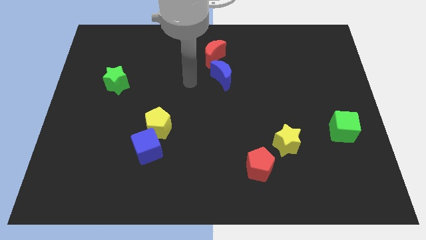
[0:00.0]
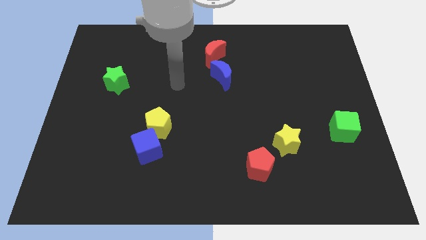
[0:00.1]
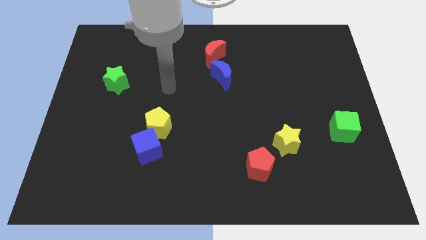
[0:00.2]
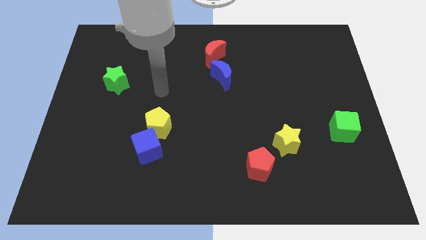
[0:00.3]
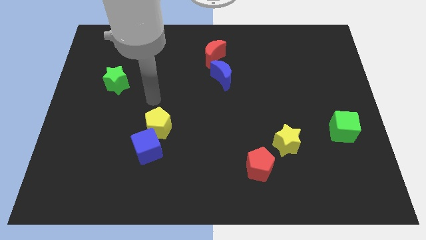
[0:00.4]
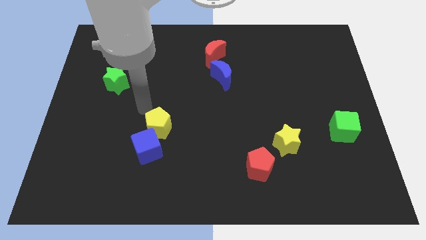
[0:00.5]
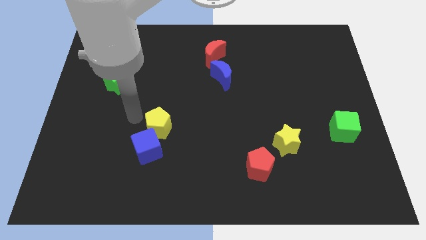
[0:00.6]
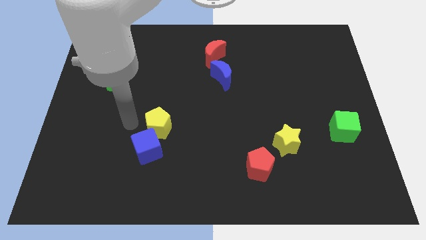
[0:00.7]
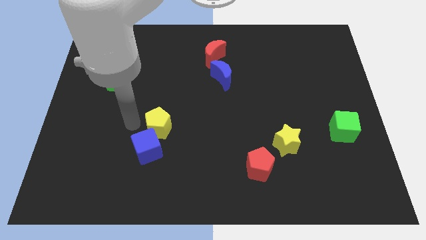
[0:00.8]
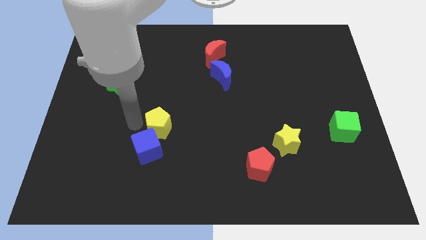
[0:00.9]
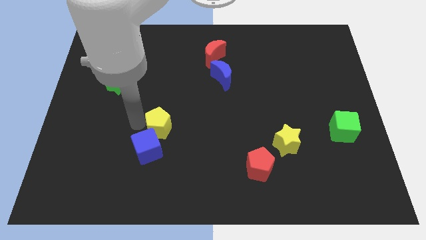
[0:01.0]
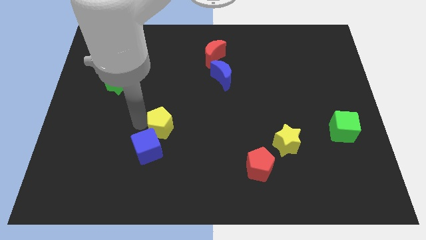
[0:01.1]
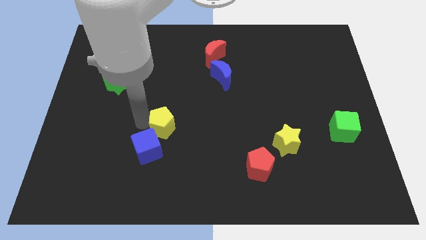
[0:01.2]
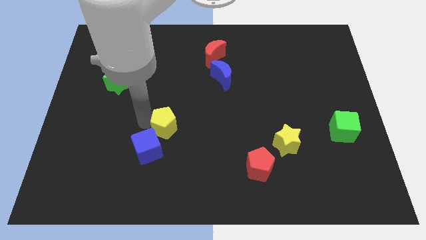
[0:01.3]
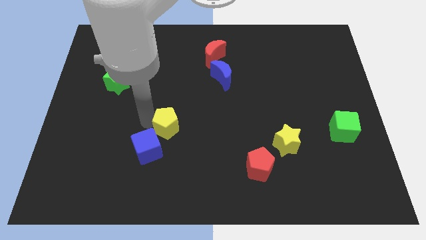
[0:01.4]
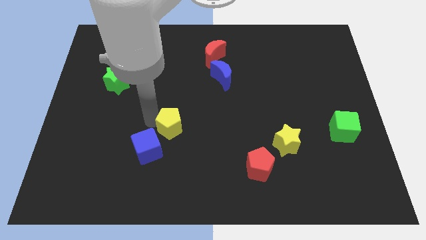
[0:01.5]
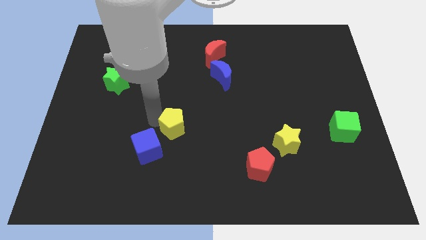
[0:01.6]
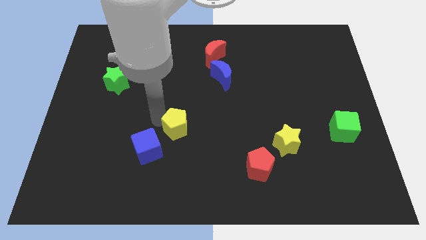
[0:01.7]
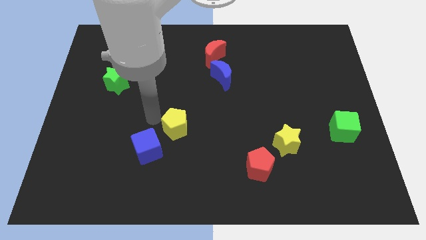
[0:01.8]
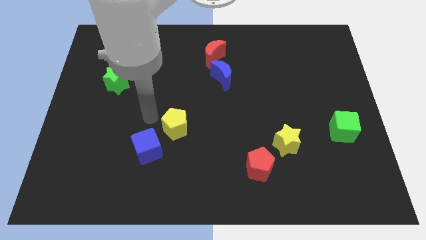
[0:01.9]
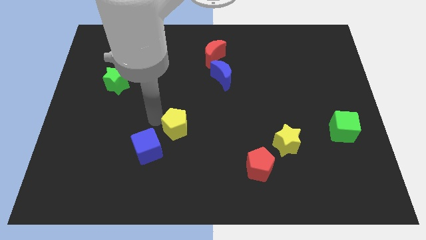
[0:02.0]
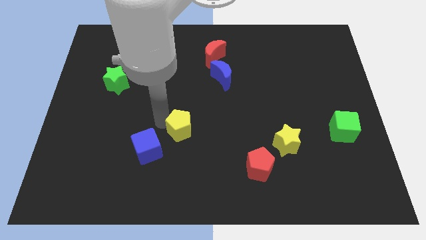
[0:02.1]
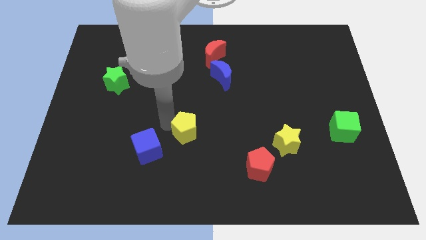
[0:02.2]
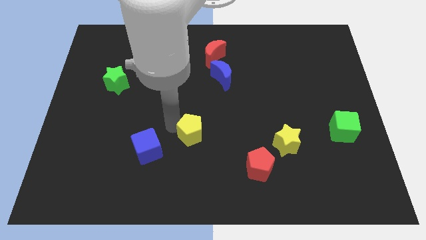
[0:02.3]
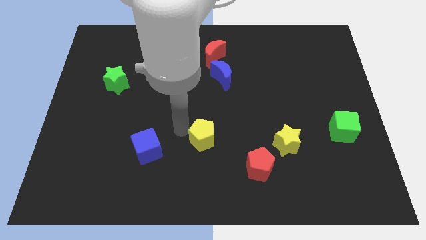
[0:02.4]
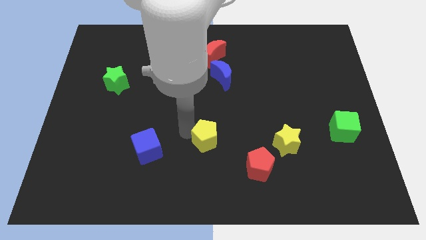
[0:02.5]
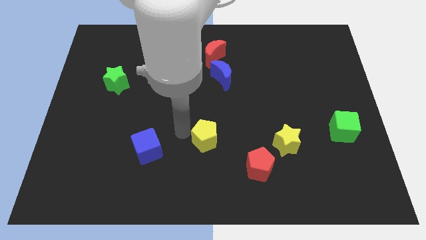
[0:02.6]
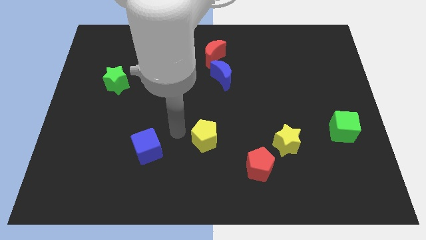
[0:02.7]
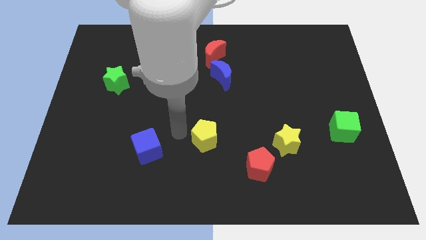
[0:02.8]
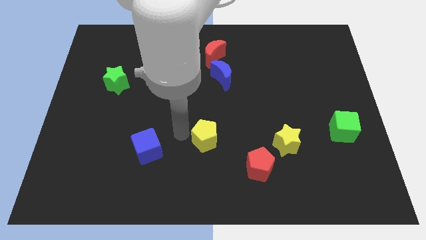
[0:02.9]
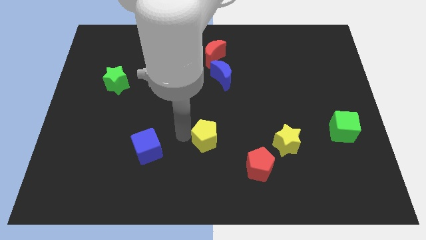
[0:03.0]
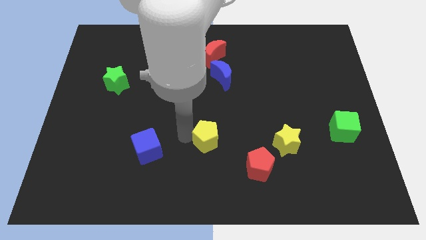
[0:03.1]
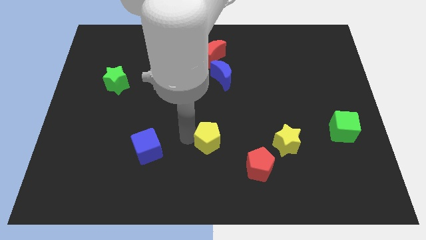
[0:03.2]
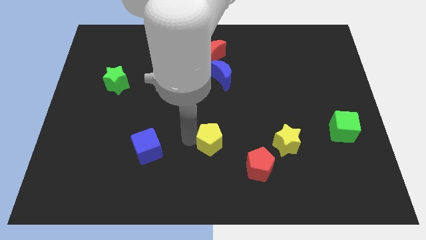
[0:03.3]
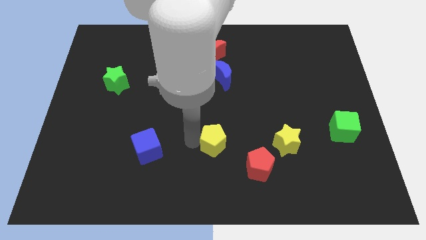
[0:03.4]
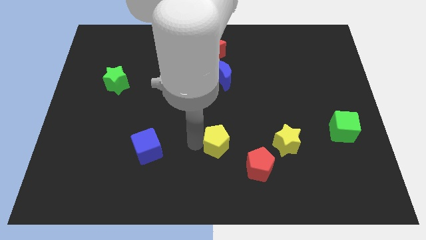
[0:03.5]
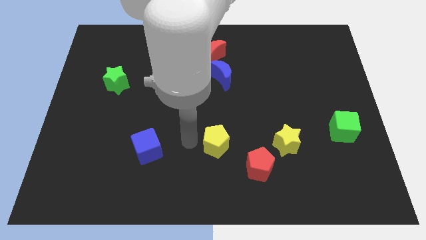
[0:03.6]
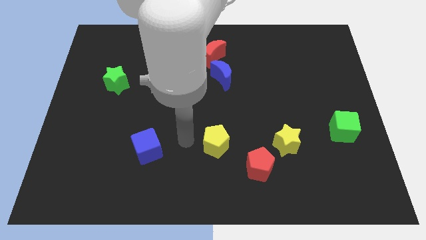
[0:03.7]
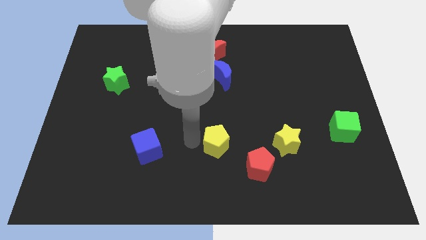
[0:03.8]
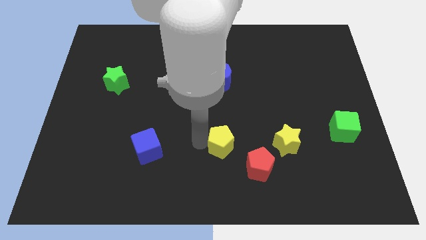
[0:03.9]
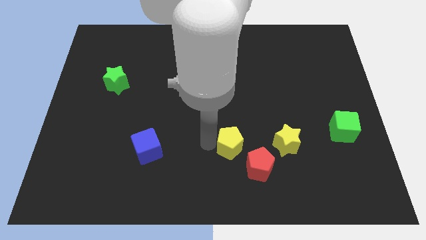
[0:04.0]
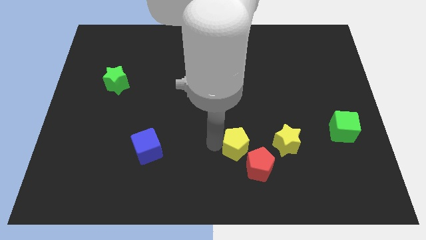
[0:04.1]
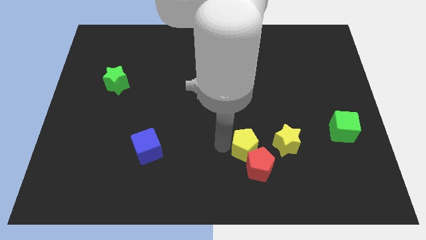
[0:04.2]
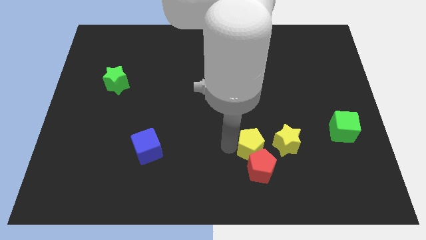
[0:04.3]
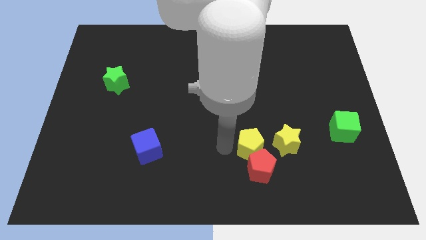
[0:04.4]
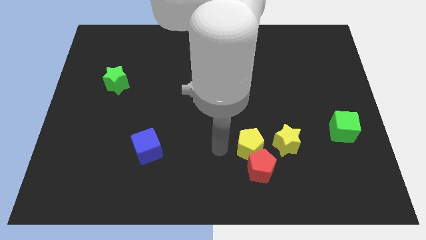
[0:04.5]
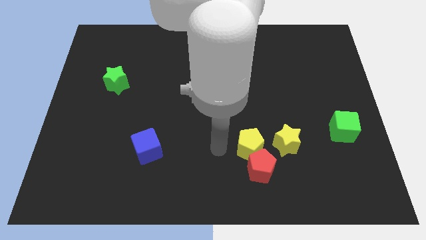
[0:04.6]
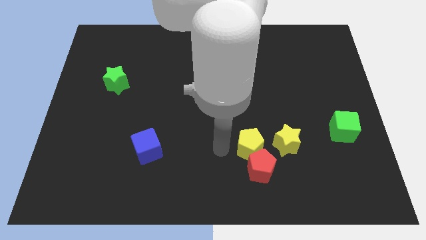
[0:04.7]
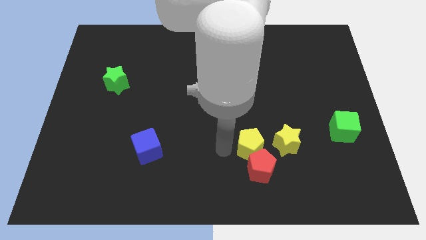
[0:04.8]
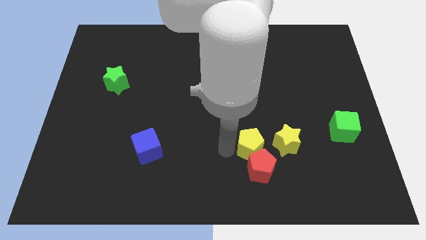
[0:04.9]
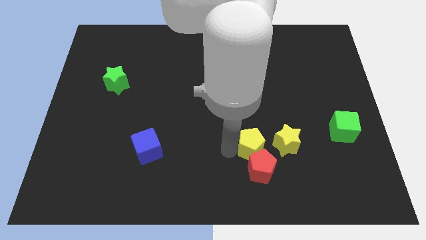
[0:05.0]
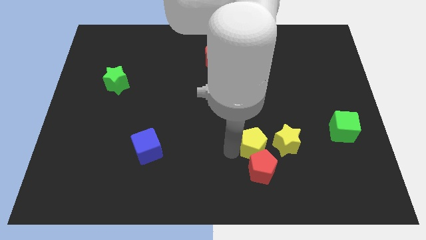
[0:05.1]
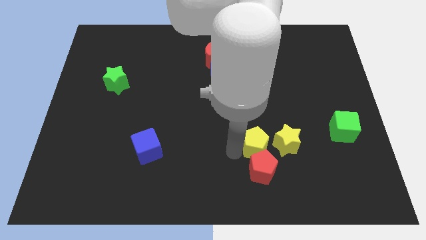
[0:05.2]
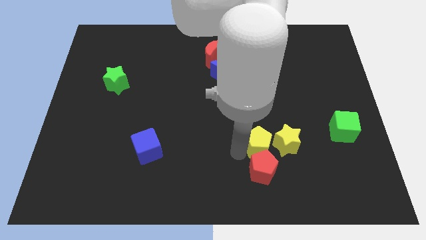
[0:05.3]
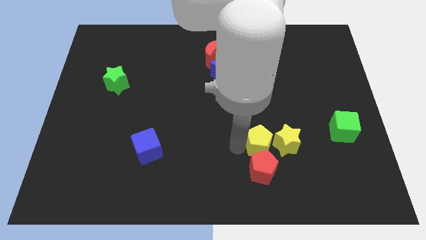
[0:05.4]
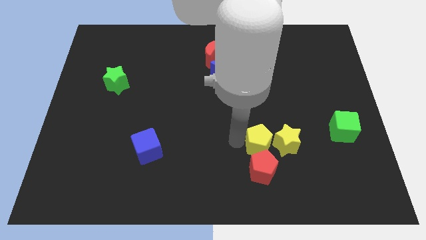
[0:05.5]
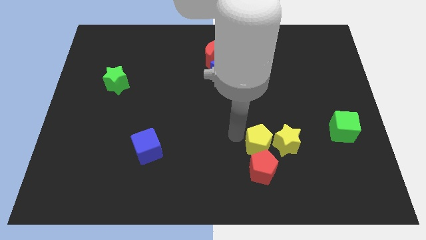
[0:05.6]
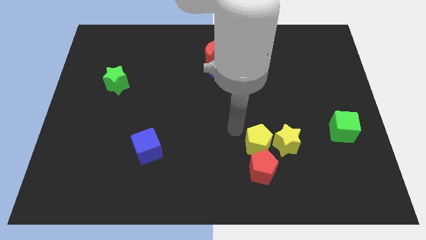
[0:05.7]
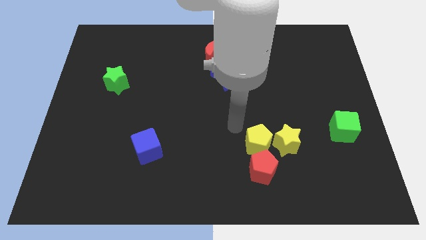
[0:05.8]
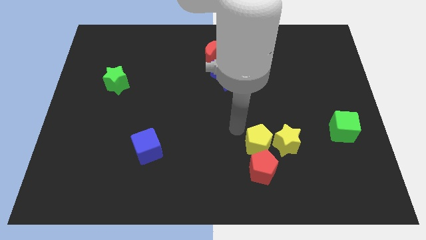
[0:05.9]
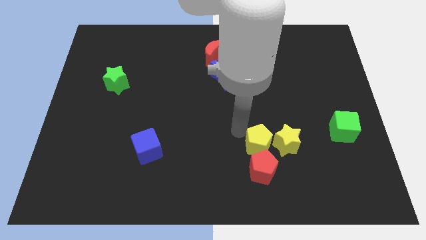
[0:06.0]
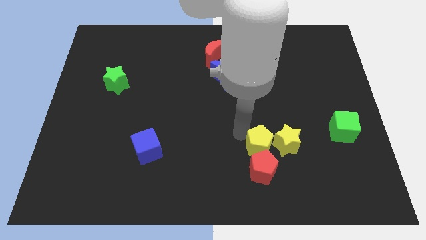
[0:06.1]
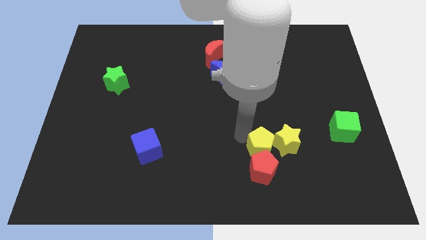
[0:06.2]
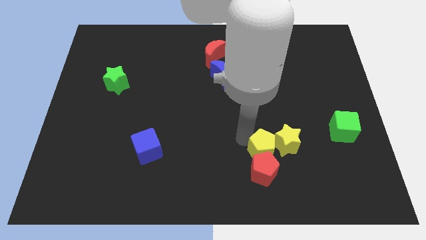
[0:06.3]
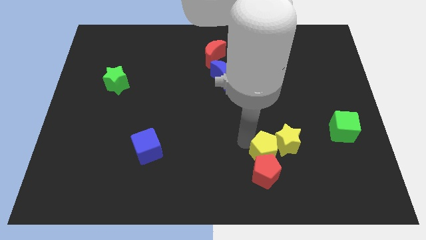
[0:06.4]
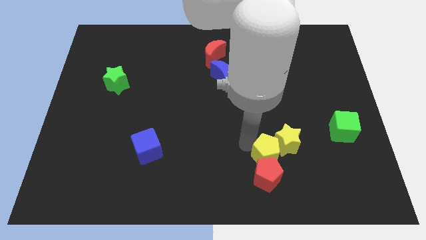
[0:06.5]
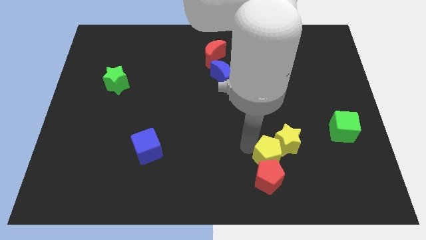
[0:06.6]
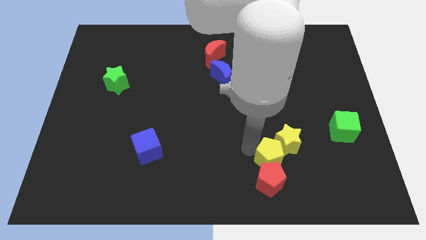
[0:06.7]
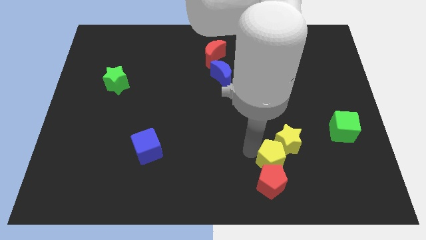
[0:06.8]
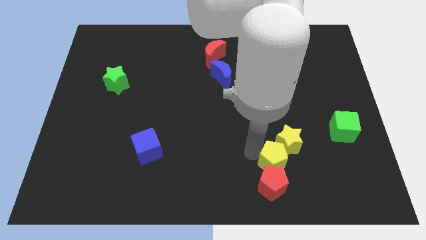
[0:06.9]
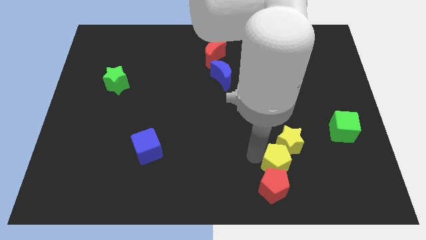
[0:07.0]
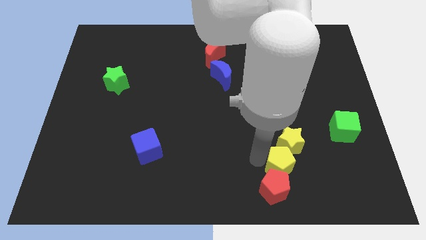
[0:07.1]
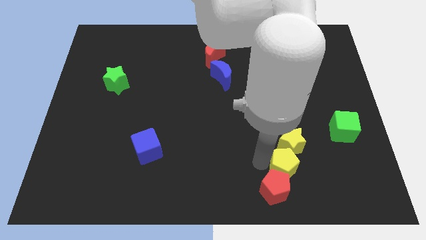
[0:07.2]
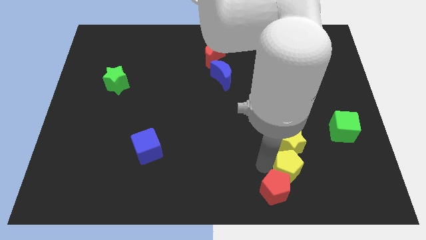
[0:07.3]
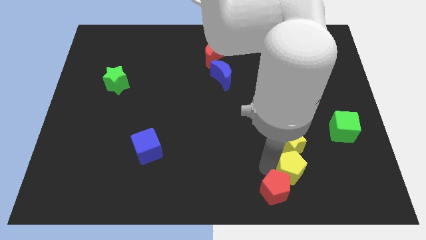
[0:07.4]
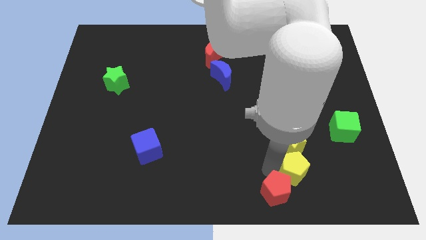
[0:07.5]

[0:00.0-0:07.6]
slide the yellow pentagon to the bottom right side of the yellow star
